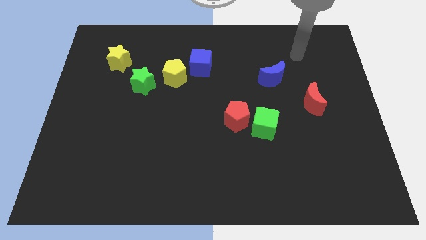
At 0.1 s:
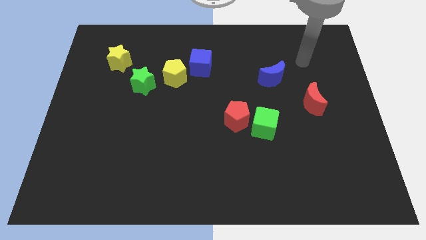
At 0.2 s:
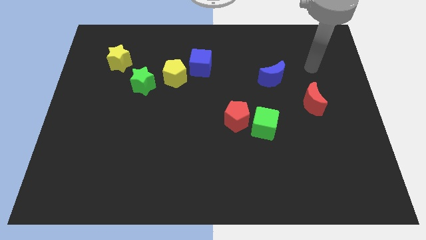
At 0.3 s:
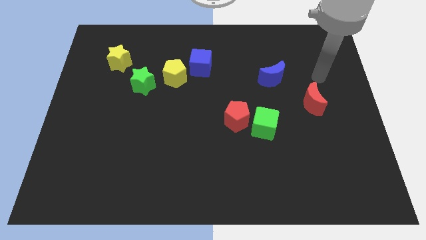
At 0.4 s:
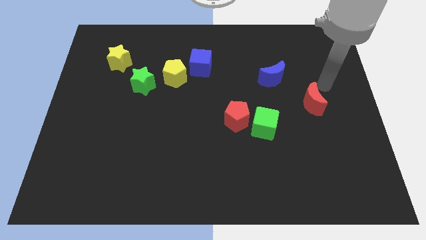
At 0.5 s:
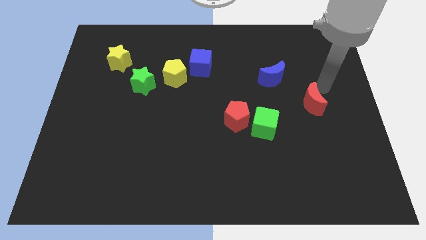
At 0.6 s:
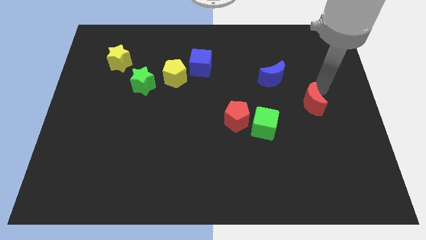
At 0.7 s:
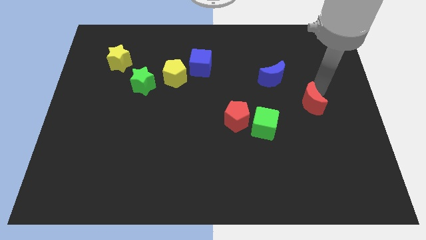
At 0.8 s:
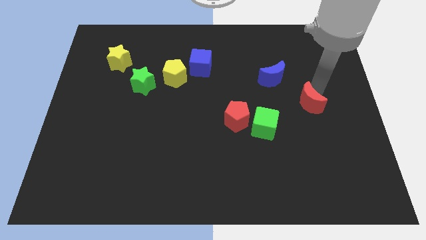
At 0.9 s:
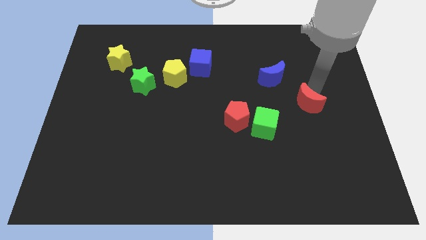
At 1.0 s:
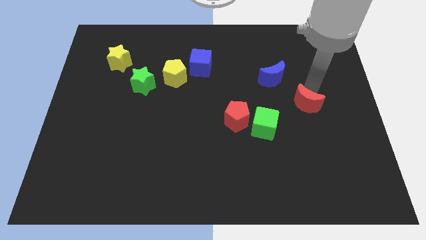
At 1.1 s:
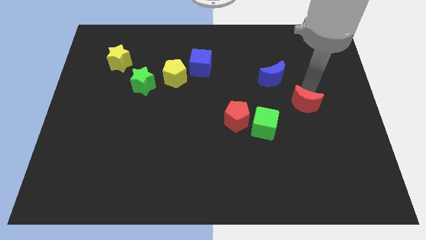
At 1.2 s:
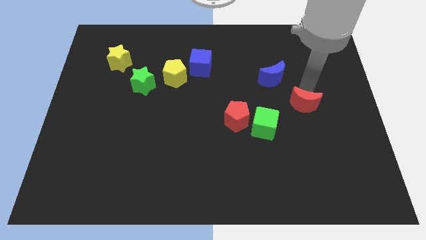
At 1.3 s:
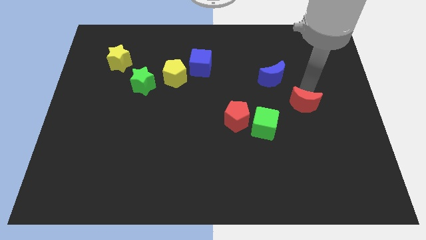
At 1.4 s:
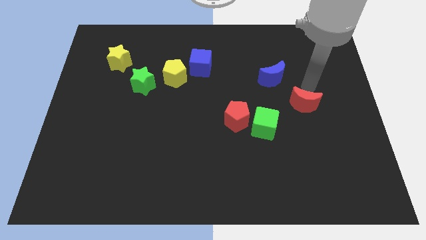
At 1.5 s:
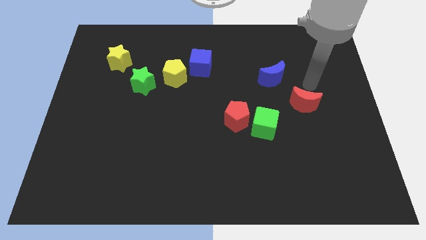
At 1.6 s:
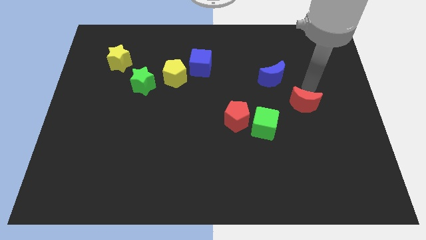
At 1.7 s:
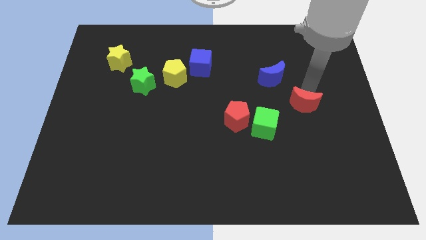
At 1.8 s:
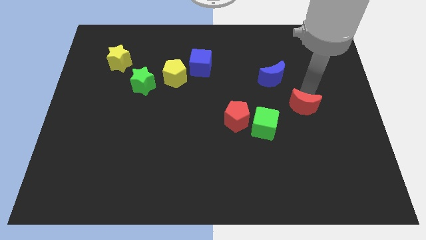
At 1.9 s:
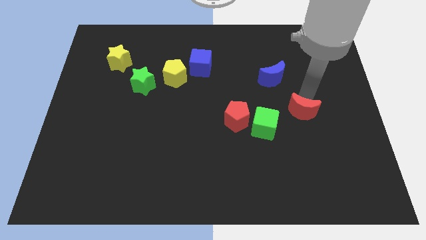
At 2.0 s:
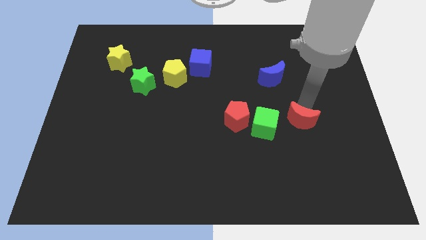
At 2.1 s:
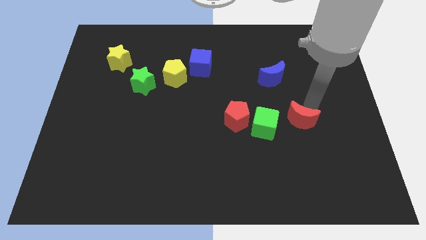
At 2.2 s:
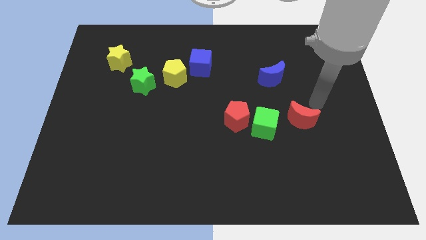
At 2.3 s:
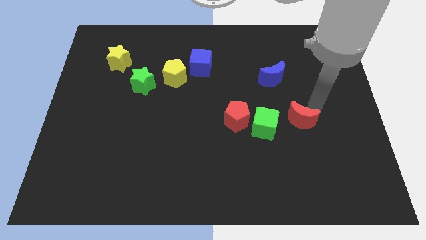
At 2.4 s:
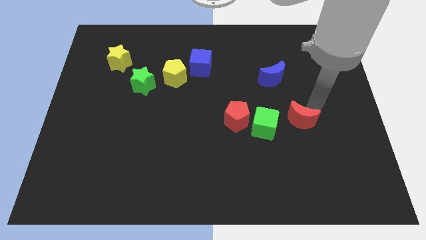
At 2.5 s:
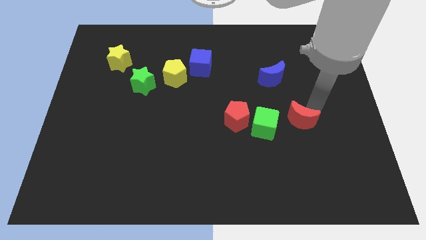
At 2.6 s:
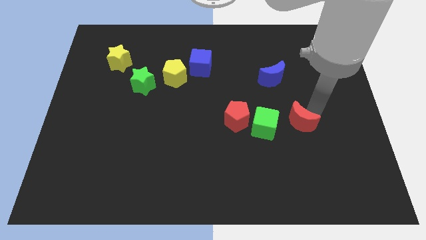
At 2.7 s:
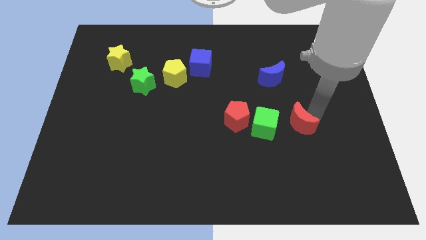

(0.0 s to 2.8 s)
move the red moon down and to the left a little bit

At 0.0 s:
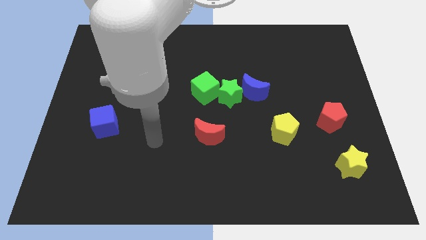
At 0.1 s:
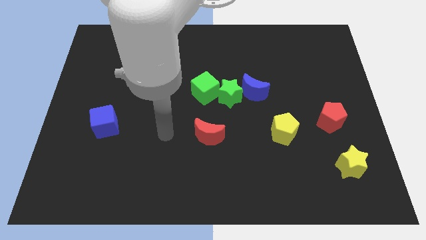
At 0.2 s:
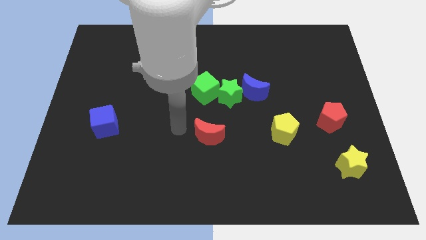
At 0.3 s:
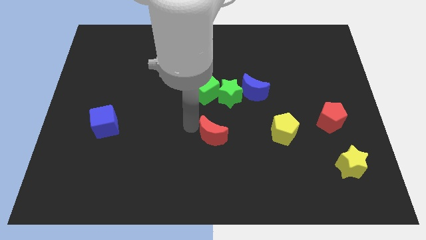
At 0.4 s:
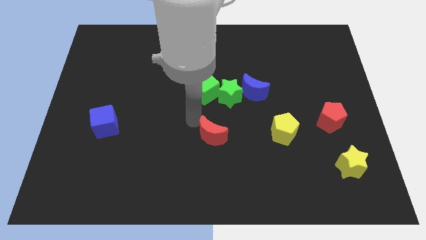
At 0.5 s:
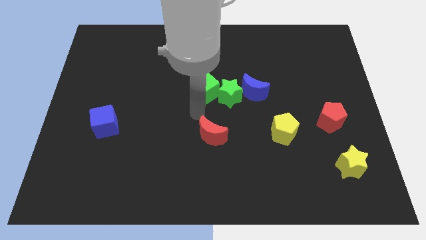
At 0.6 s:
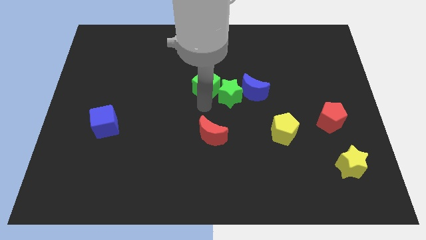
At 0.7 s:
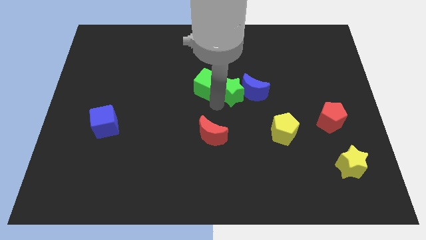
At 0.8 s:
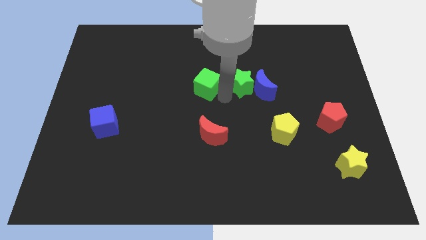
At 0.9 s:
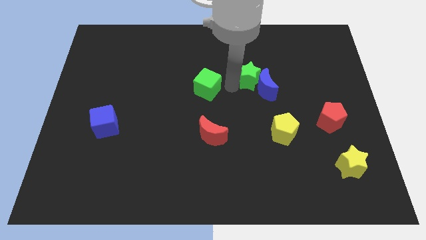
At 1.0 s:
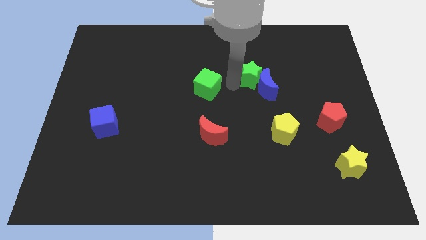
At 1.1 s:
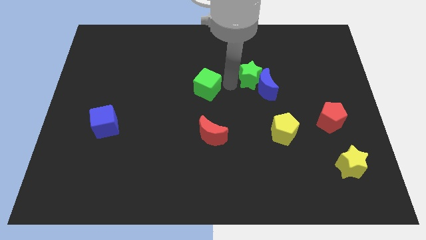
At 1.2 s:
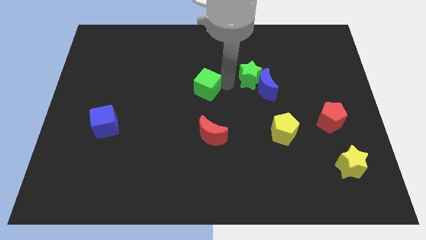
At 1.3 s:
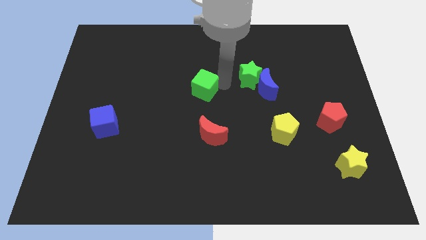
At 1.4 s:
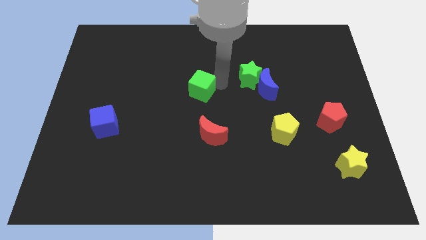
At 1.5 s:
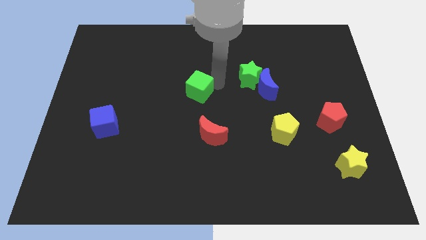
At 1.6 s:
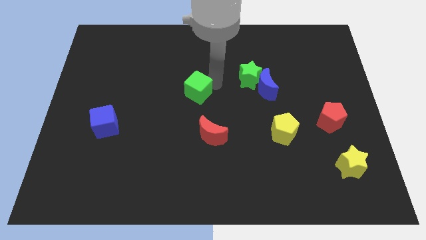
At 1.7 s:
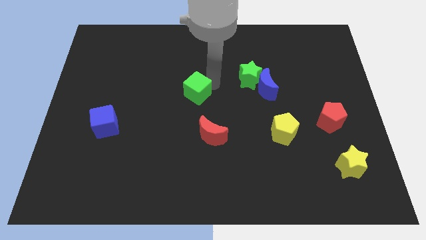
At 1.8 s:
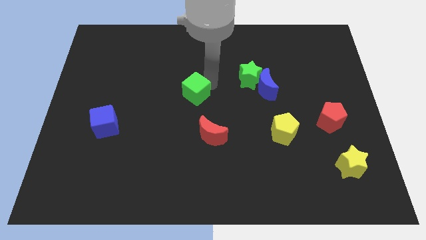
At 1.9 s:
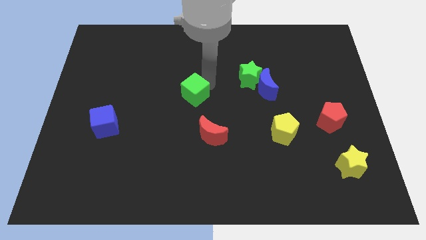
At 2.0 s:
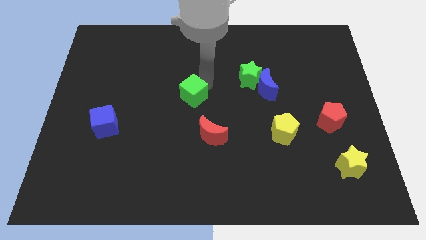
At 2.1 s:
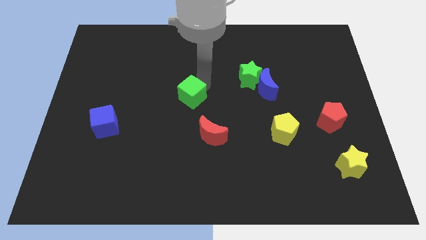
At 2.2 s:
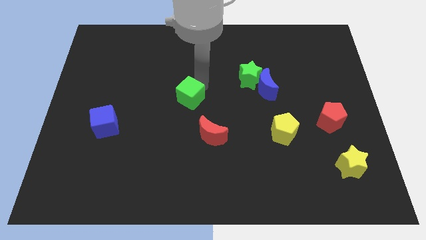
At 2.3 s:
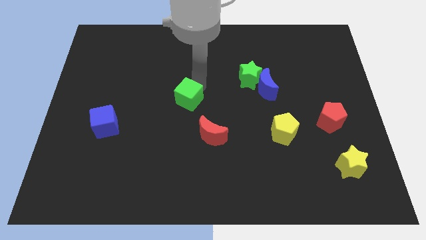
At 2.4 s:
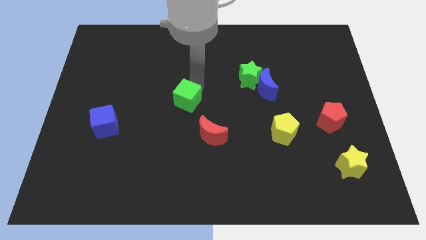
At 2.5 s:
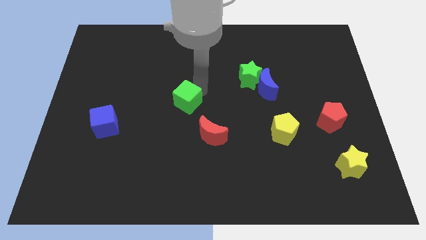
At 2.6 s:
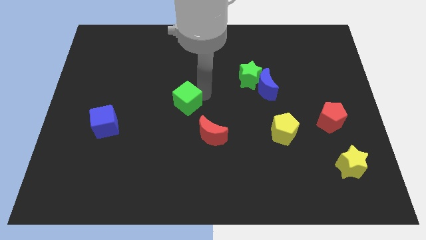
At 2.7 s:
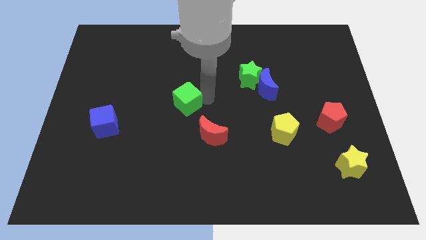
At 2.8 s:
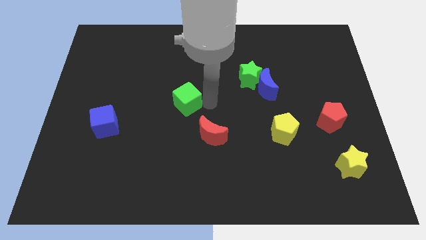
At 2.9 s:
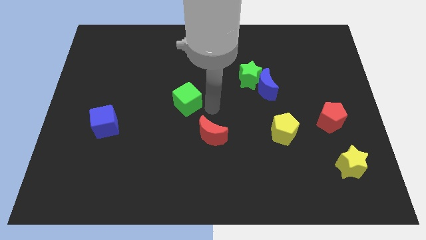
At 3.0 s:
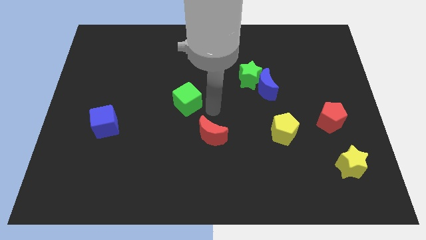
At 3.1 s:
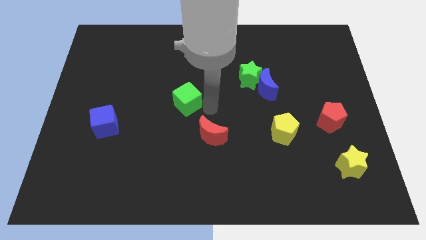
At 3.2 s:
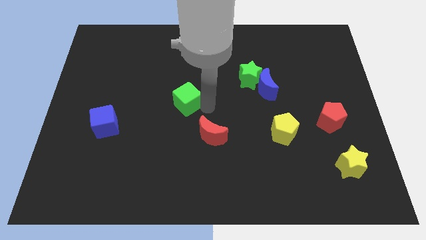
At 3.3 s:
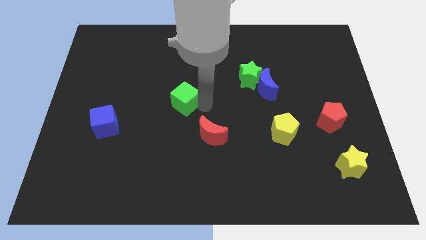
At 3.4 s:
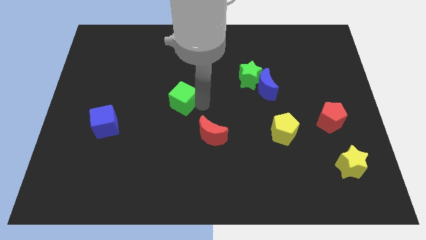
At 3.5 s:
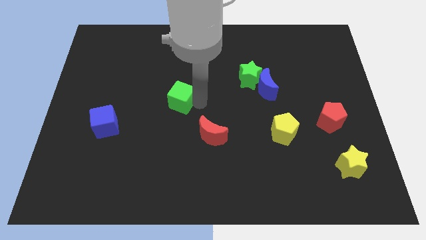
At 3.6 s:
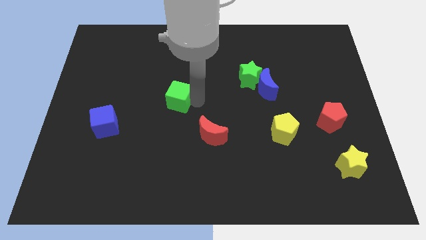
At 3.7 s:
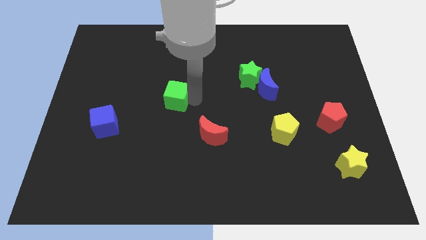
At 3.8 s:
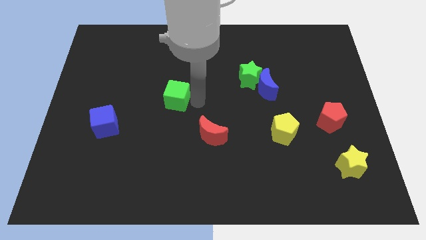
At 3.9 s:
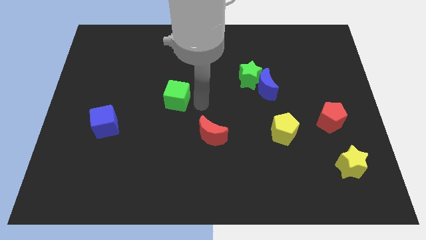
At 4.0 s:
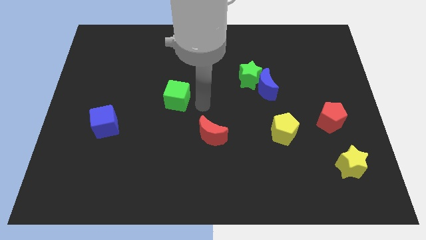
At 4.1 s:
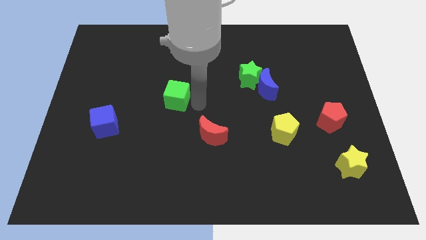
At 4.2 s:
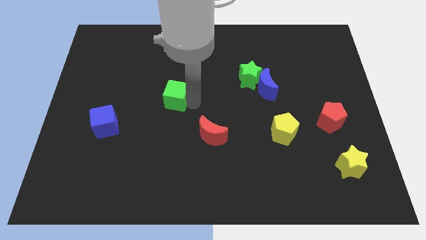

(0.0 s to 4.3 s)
slide the green cube somewhat left

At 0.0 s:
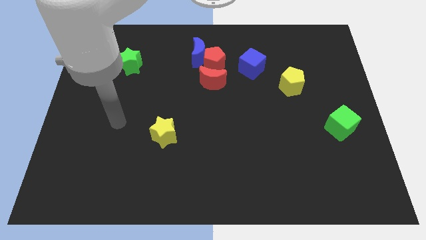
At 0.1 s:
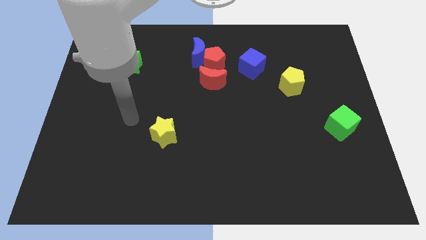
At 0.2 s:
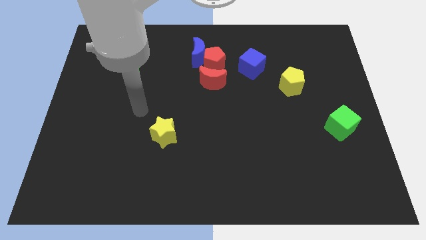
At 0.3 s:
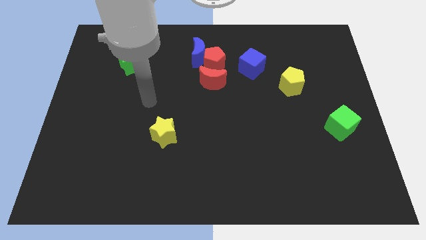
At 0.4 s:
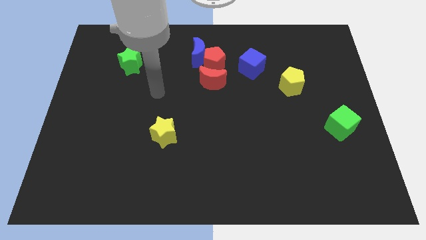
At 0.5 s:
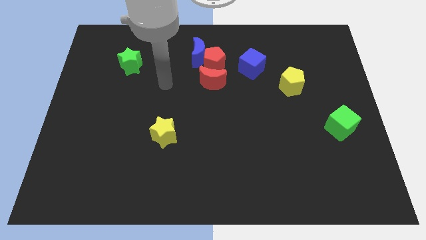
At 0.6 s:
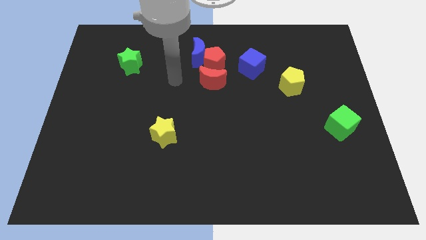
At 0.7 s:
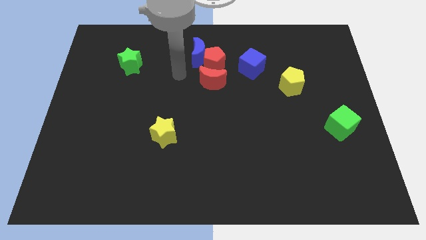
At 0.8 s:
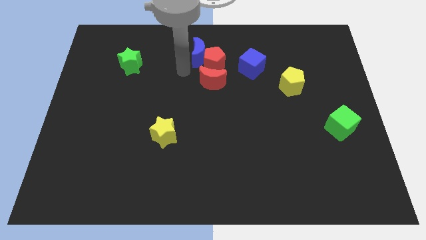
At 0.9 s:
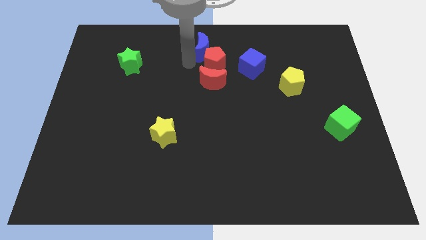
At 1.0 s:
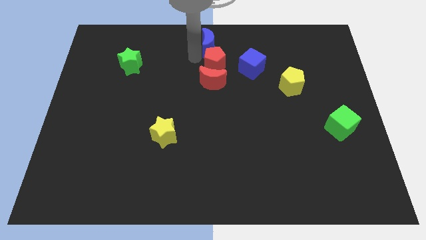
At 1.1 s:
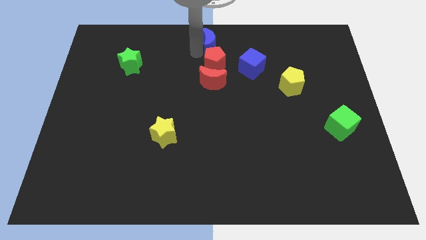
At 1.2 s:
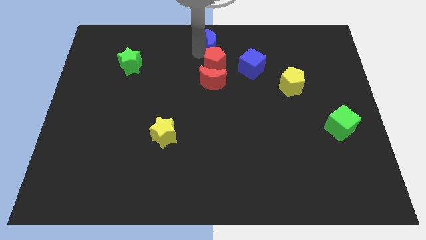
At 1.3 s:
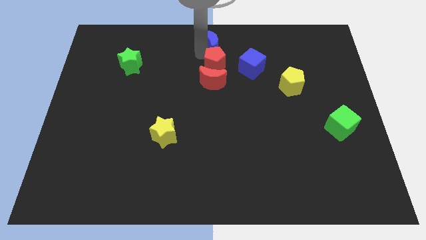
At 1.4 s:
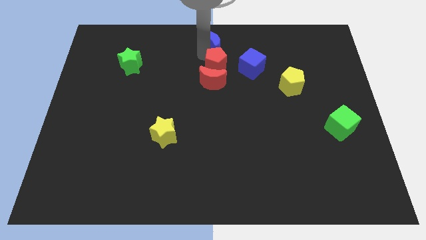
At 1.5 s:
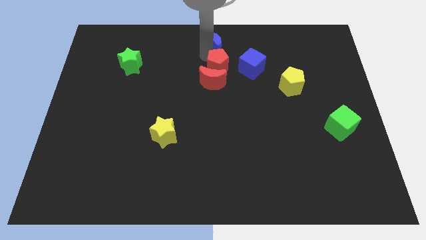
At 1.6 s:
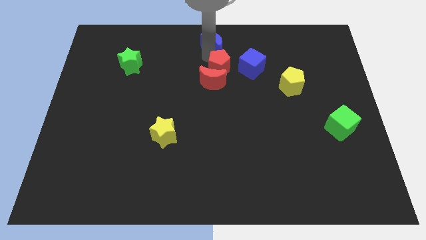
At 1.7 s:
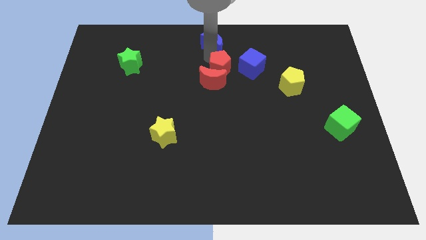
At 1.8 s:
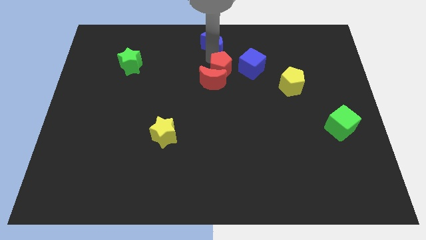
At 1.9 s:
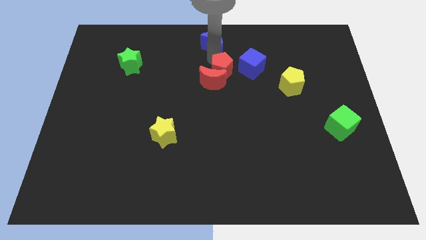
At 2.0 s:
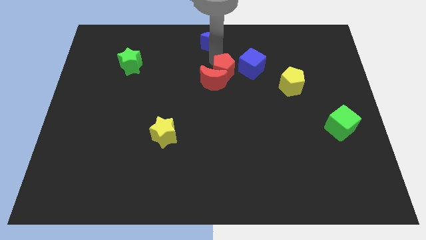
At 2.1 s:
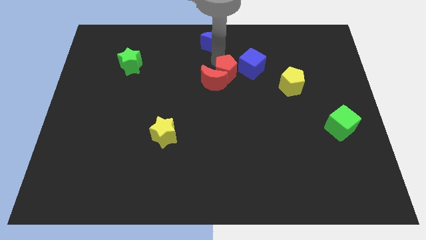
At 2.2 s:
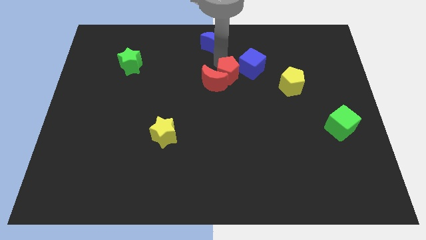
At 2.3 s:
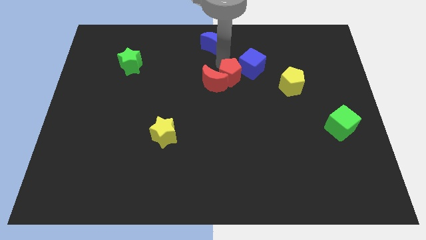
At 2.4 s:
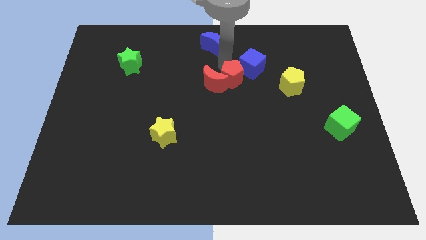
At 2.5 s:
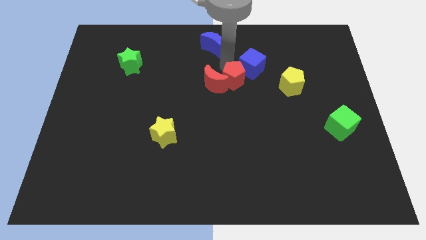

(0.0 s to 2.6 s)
slide the red pentagon downwards and right a little
